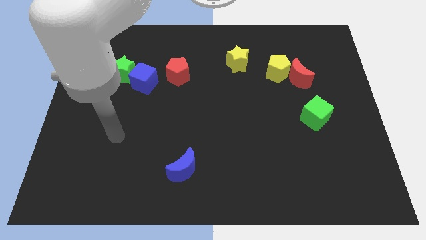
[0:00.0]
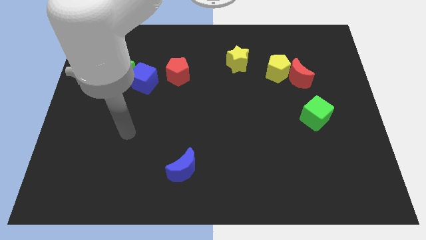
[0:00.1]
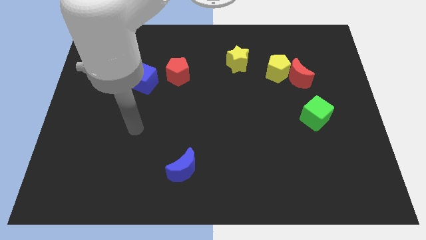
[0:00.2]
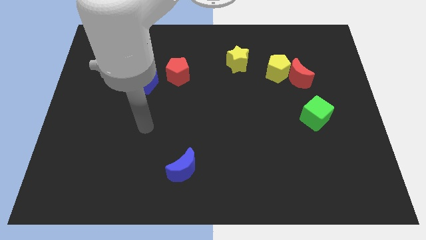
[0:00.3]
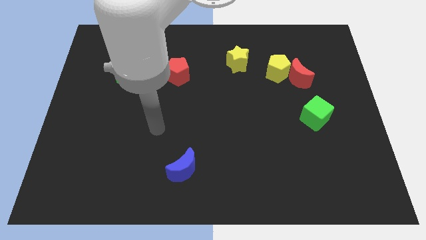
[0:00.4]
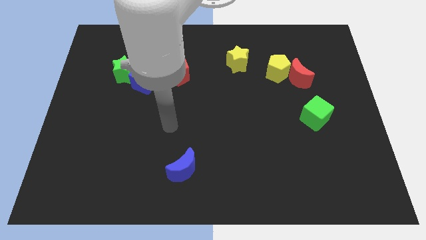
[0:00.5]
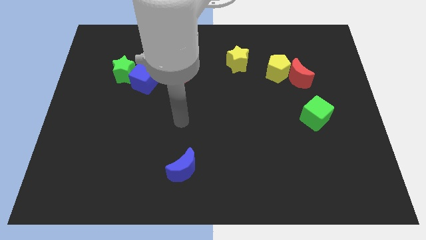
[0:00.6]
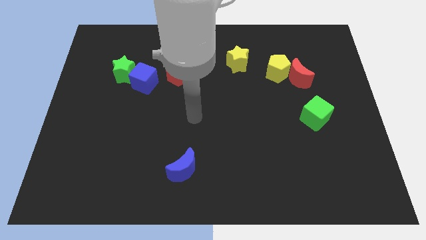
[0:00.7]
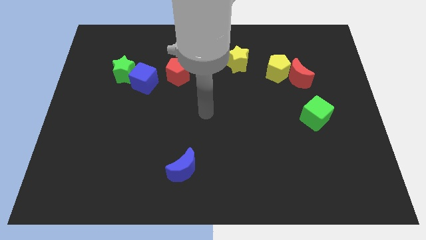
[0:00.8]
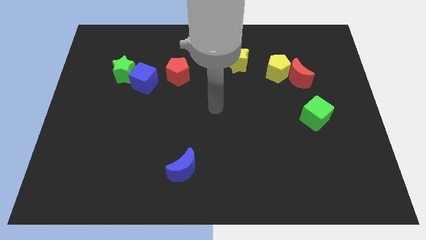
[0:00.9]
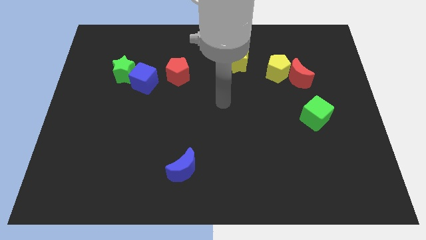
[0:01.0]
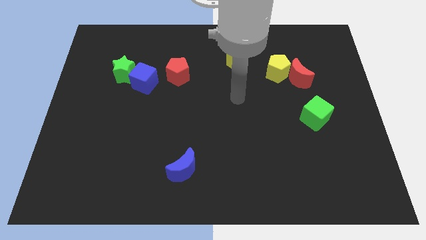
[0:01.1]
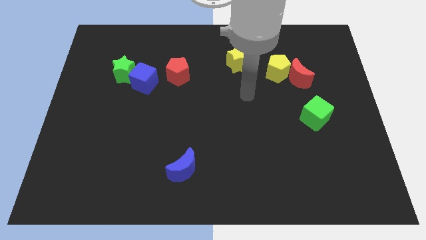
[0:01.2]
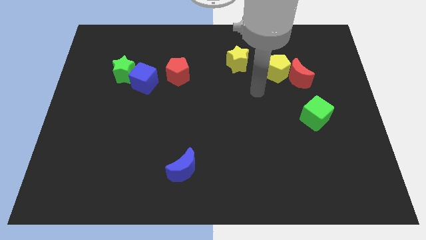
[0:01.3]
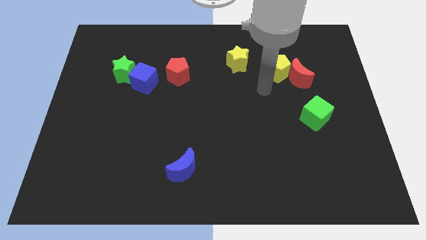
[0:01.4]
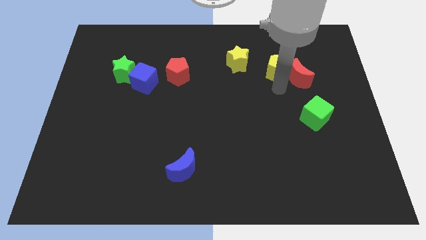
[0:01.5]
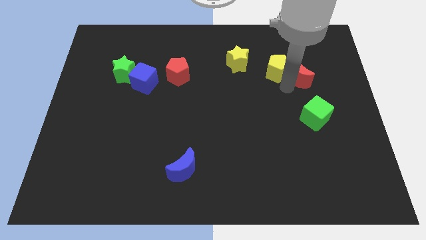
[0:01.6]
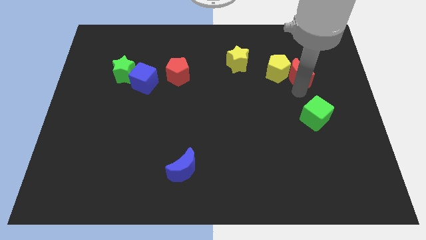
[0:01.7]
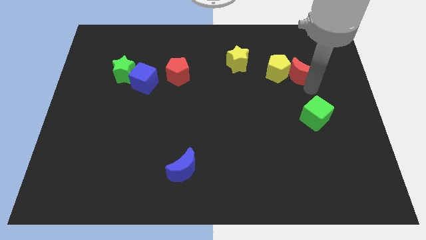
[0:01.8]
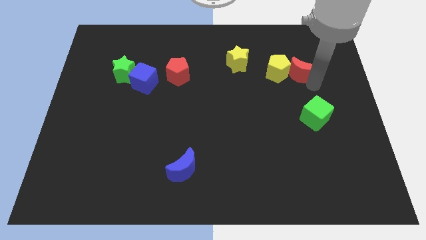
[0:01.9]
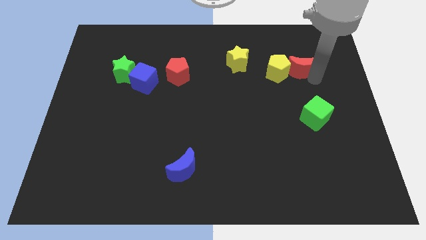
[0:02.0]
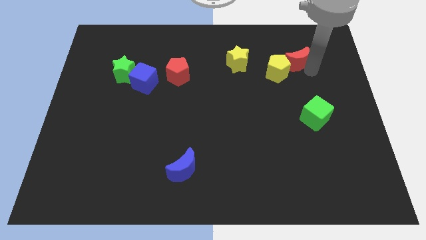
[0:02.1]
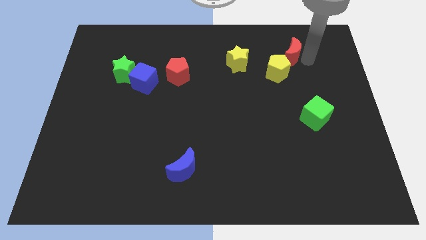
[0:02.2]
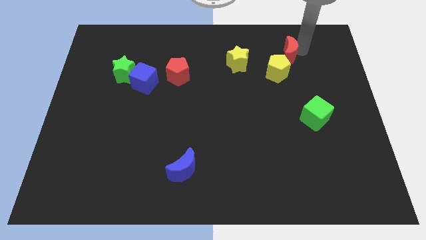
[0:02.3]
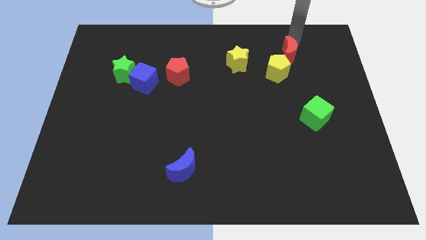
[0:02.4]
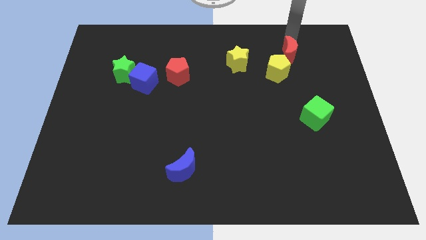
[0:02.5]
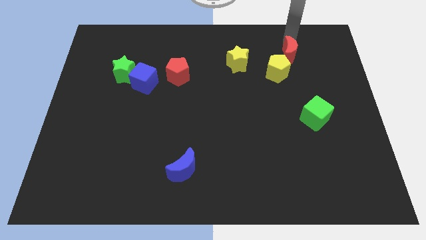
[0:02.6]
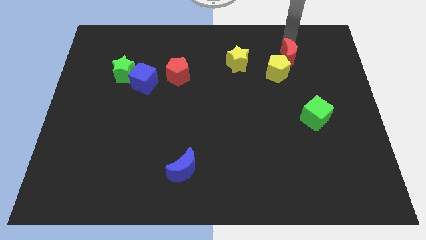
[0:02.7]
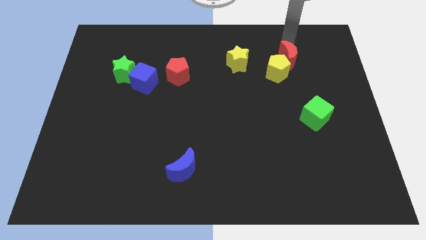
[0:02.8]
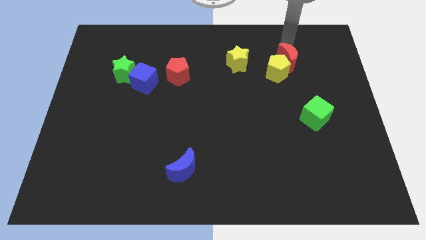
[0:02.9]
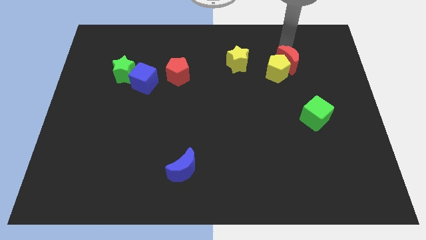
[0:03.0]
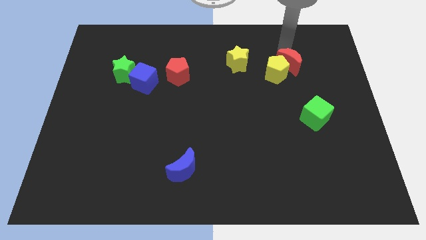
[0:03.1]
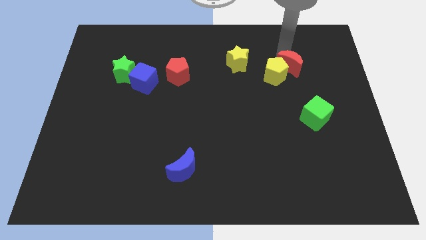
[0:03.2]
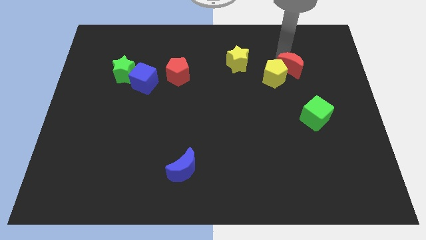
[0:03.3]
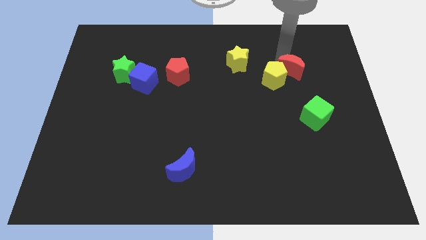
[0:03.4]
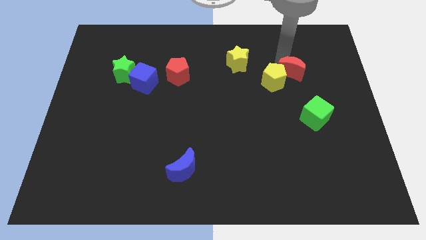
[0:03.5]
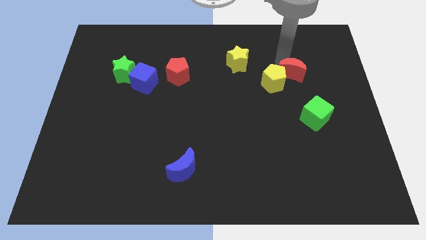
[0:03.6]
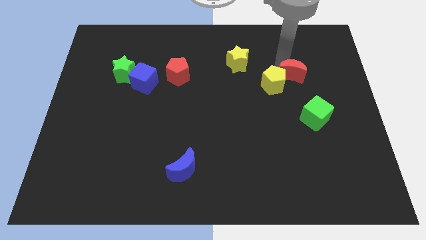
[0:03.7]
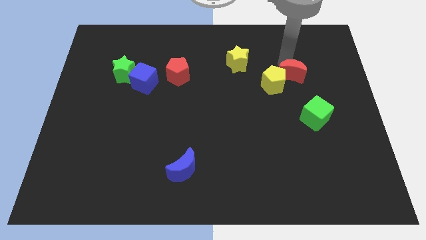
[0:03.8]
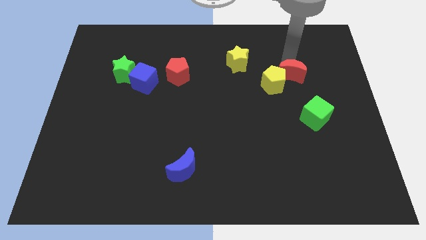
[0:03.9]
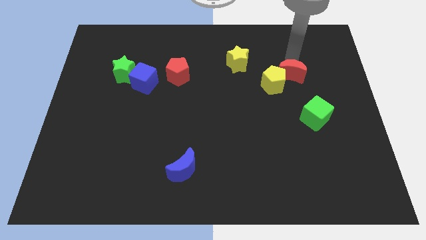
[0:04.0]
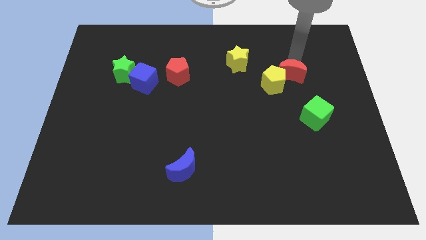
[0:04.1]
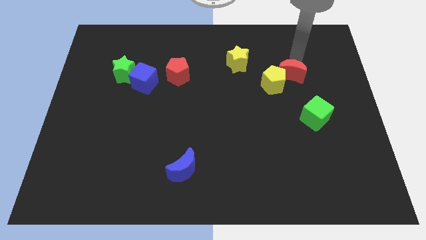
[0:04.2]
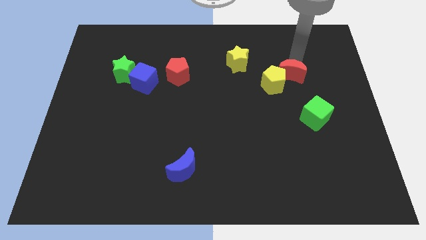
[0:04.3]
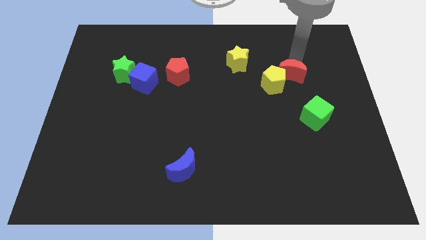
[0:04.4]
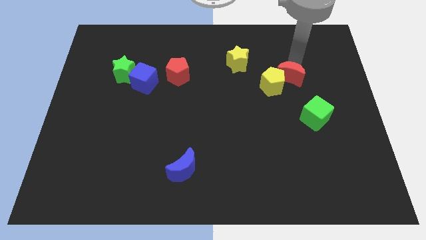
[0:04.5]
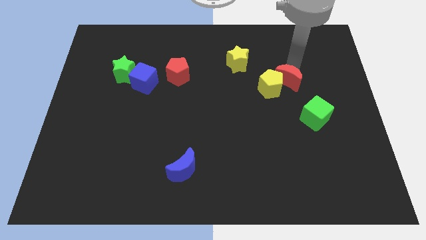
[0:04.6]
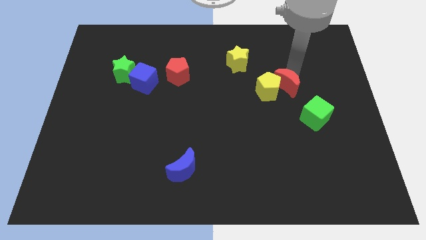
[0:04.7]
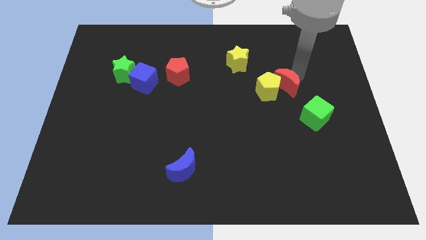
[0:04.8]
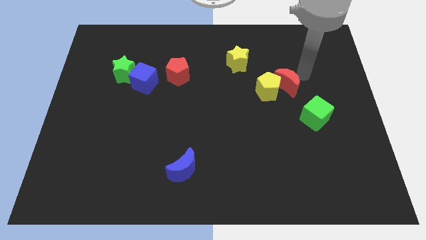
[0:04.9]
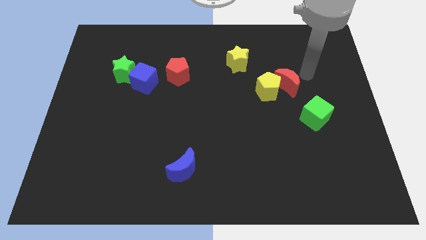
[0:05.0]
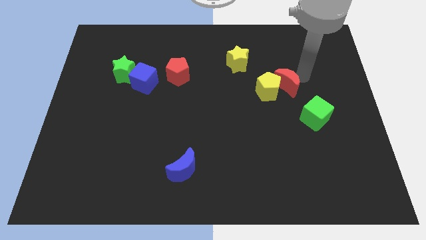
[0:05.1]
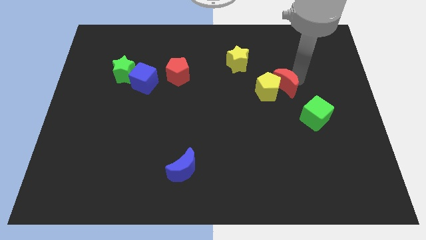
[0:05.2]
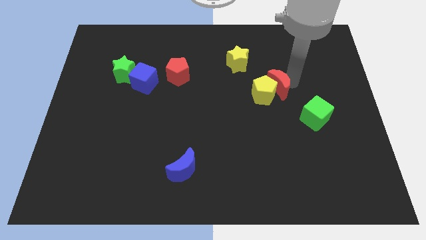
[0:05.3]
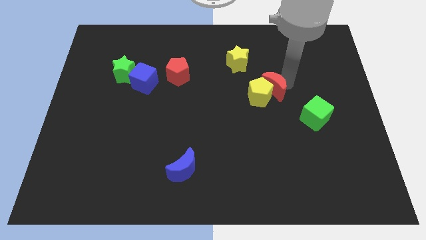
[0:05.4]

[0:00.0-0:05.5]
push the red moon diagonally downwards and to the left somewhat

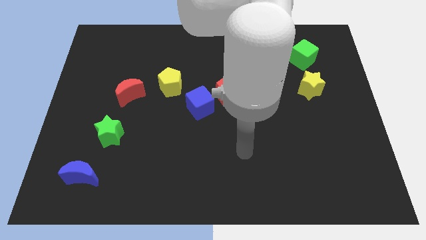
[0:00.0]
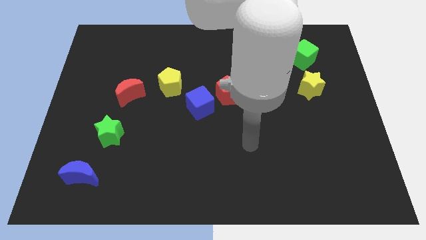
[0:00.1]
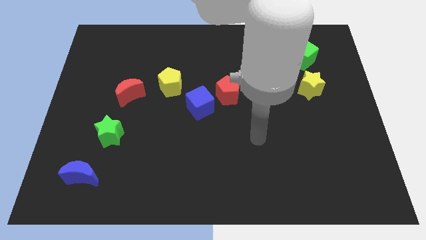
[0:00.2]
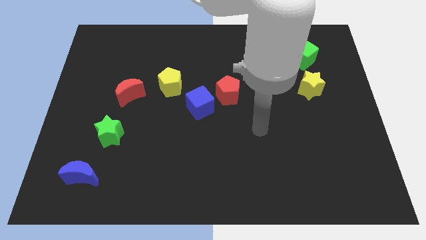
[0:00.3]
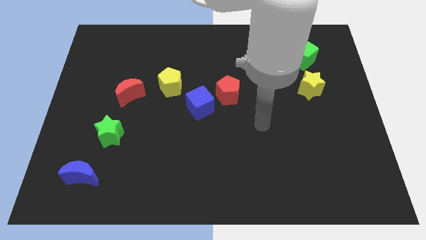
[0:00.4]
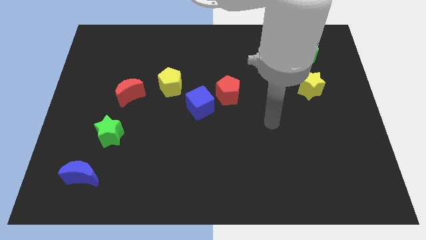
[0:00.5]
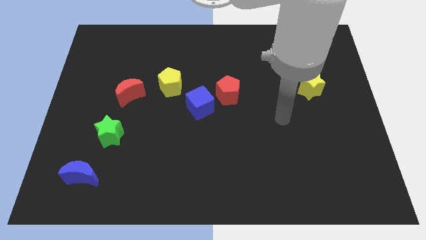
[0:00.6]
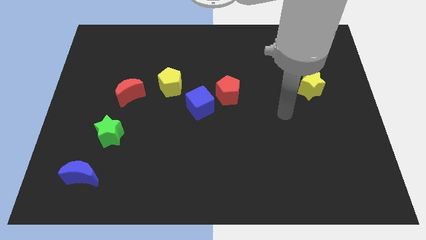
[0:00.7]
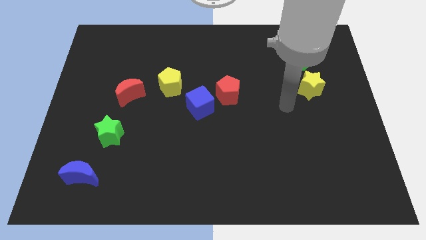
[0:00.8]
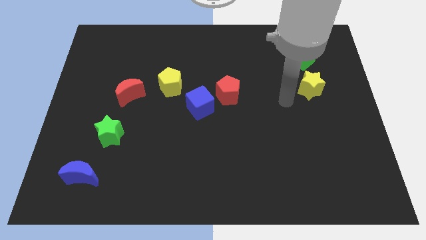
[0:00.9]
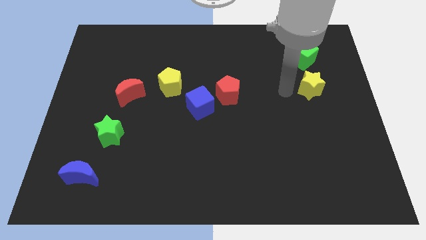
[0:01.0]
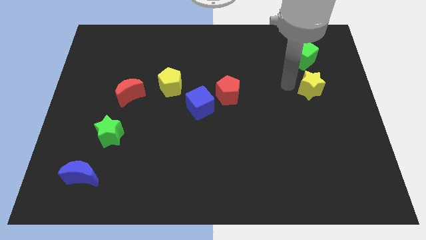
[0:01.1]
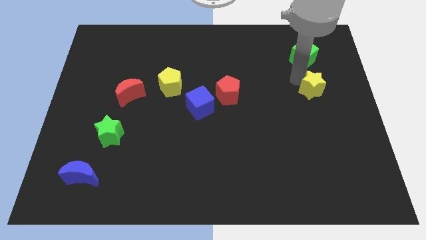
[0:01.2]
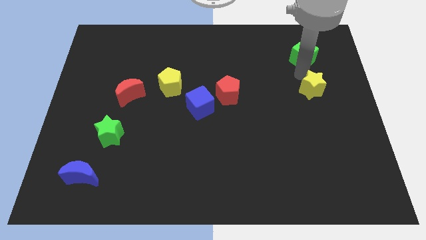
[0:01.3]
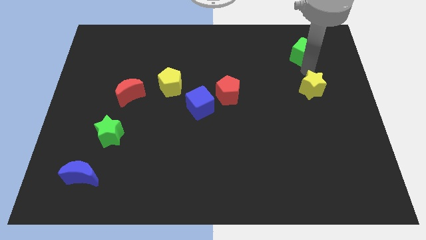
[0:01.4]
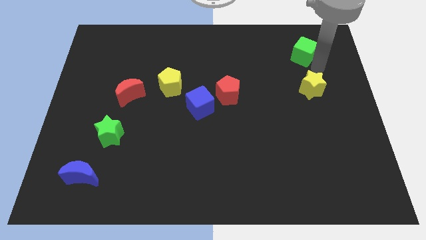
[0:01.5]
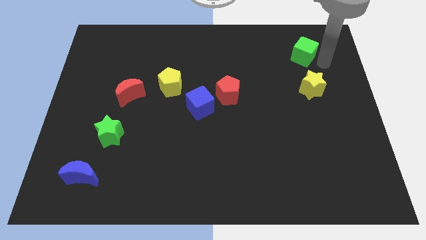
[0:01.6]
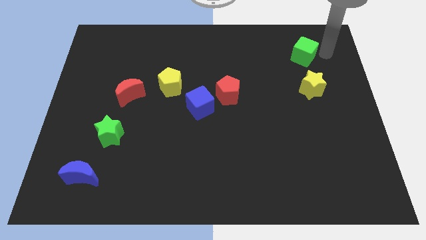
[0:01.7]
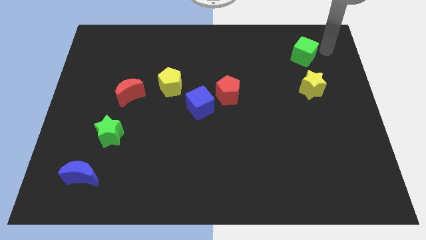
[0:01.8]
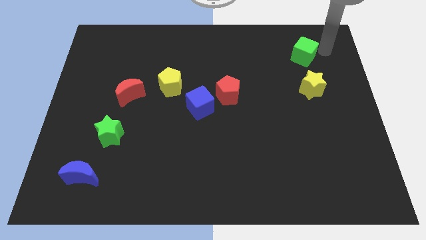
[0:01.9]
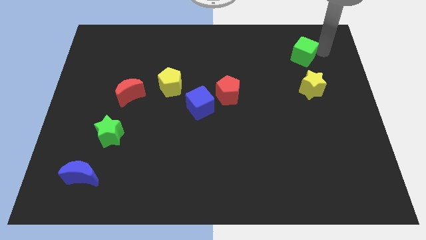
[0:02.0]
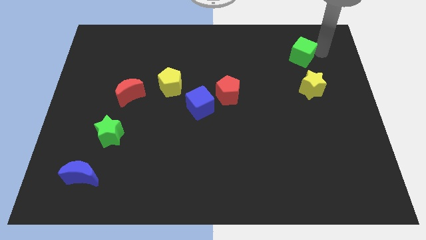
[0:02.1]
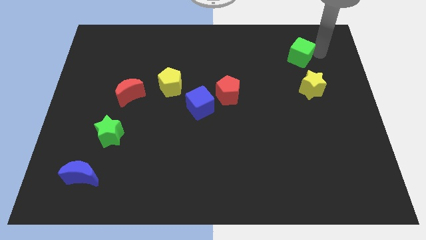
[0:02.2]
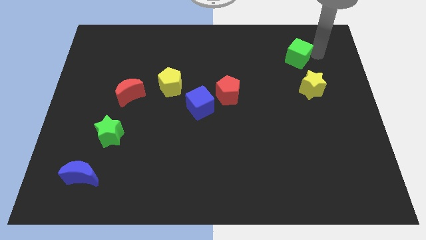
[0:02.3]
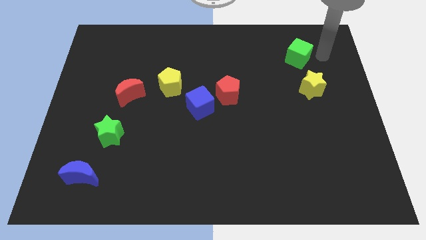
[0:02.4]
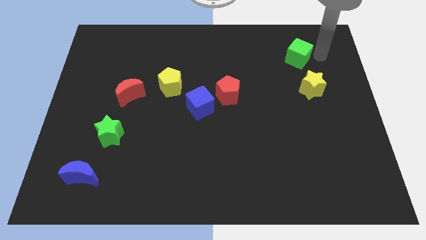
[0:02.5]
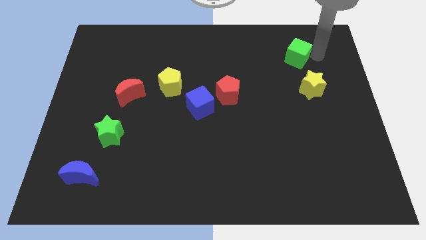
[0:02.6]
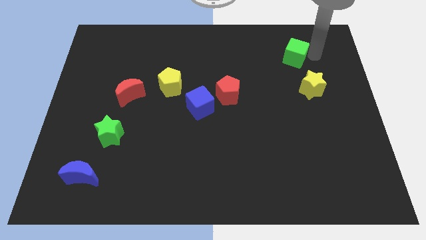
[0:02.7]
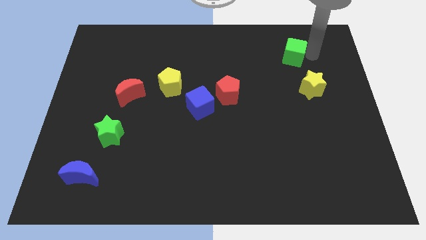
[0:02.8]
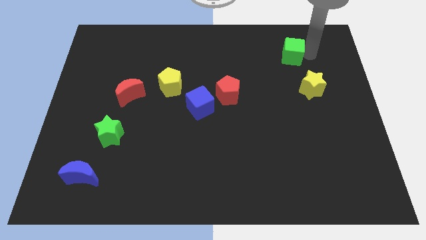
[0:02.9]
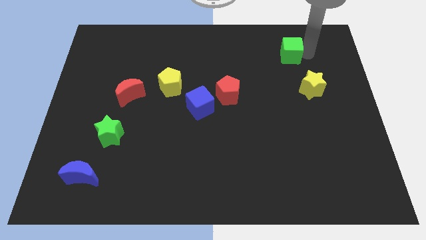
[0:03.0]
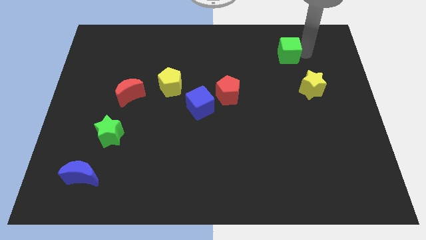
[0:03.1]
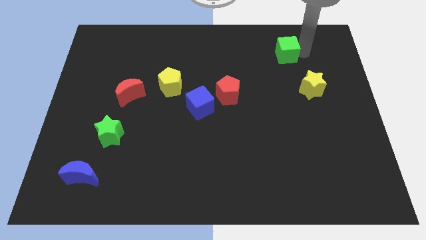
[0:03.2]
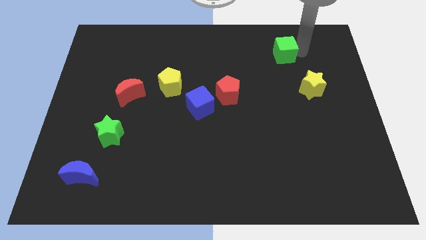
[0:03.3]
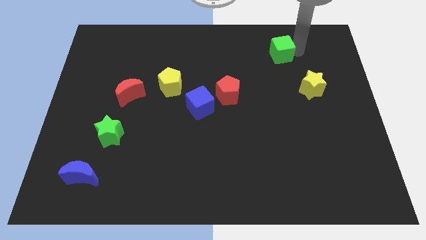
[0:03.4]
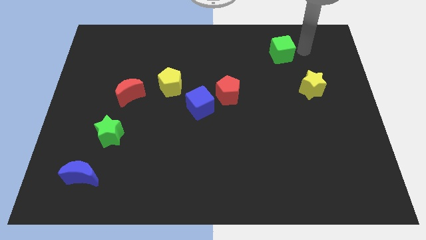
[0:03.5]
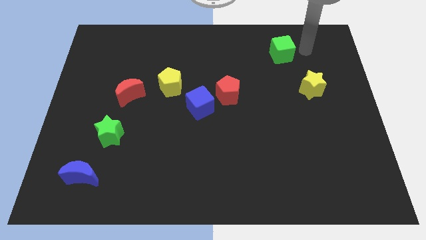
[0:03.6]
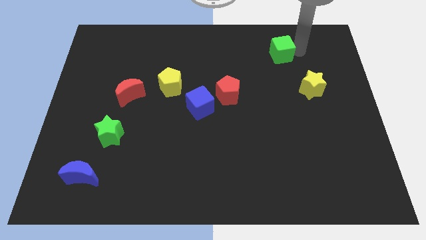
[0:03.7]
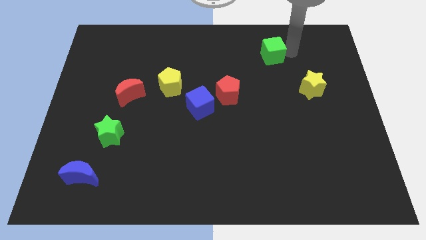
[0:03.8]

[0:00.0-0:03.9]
push the green cube slightly left
